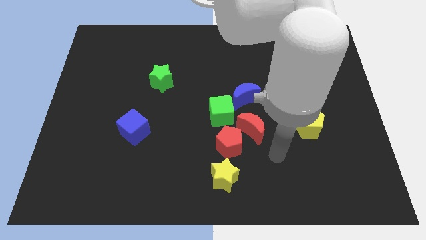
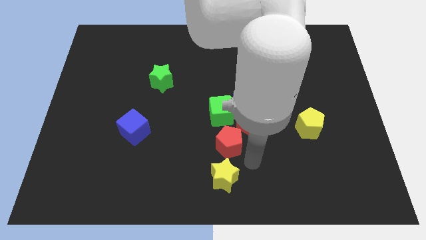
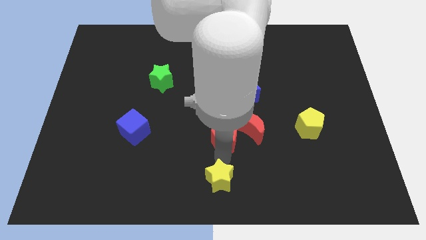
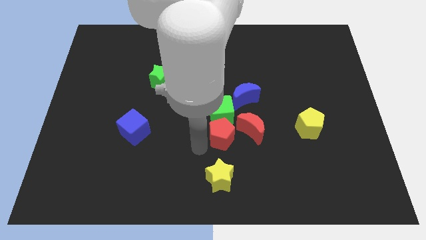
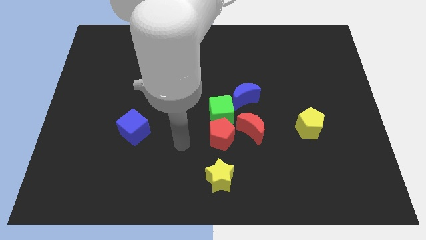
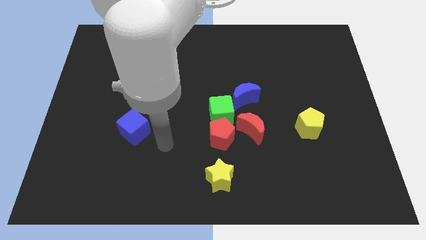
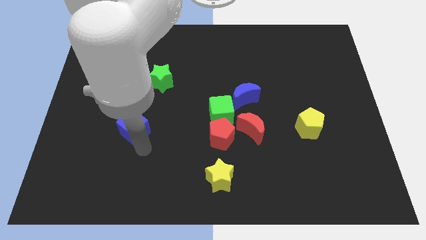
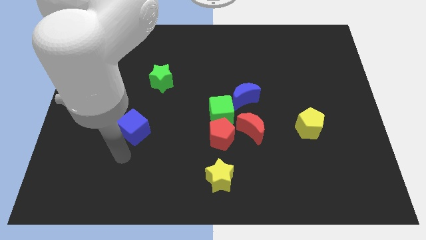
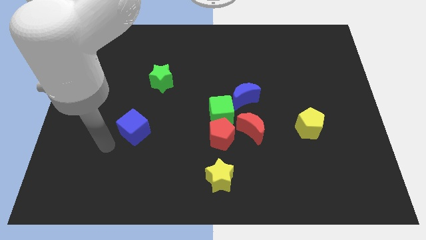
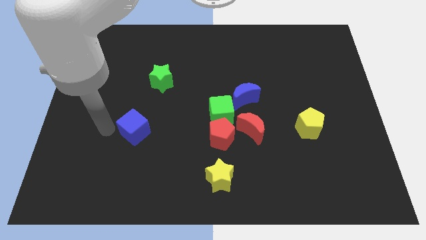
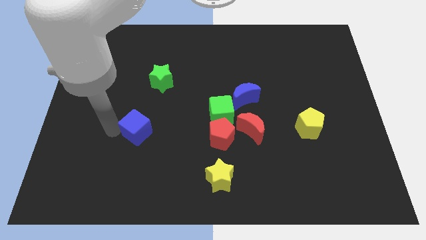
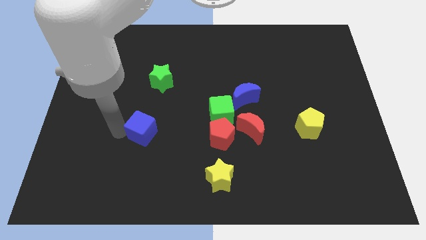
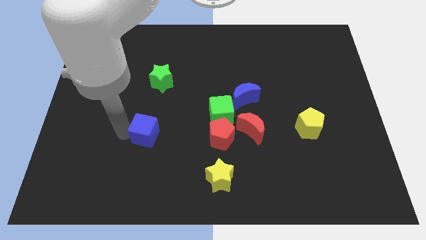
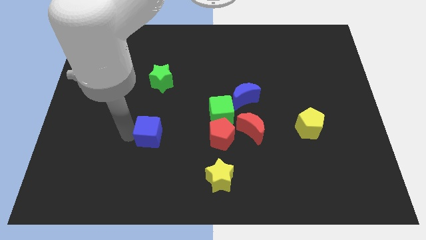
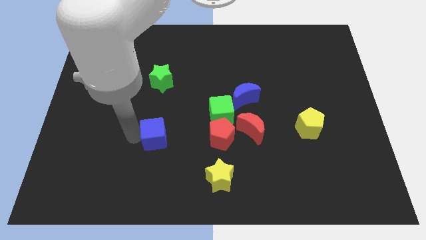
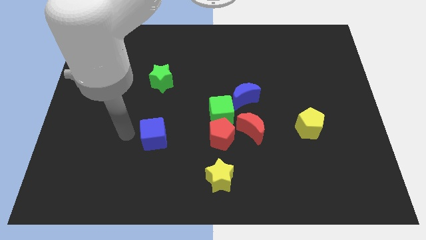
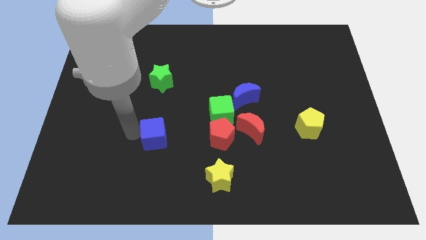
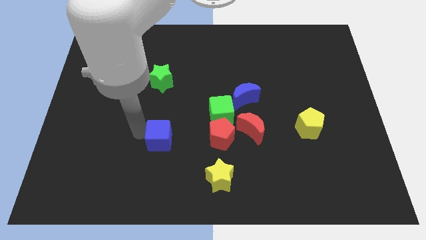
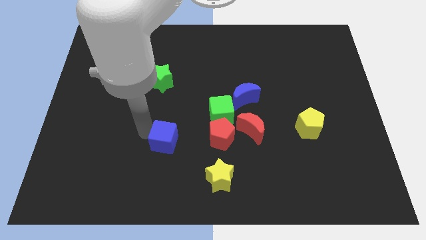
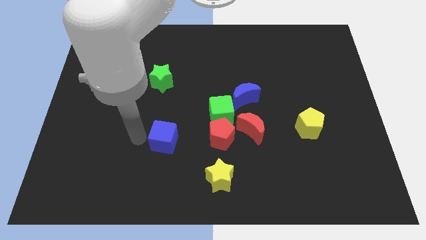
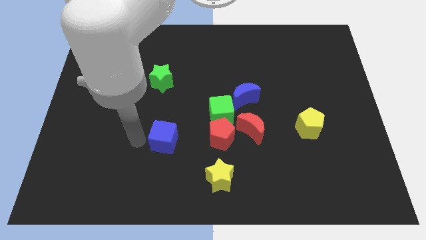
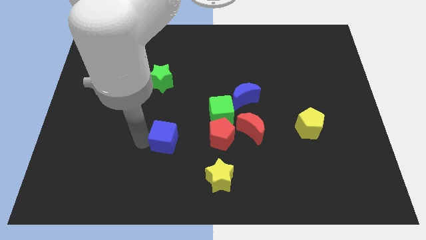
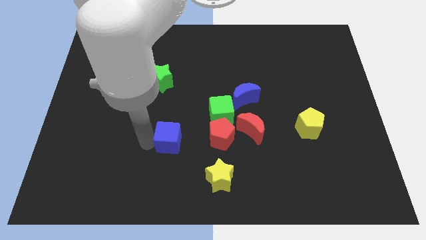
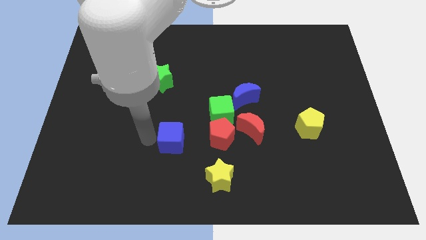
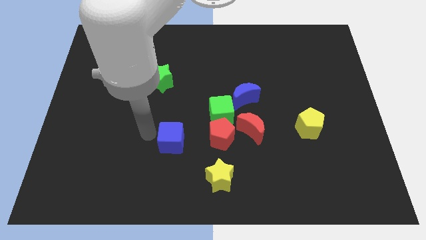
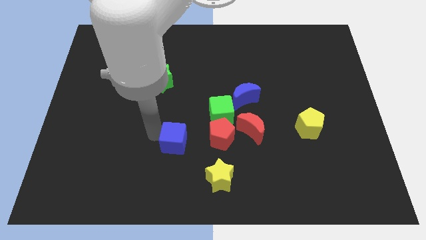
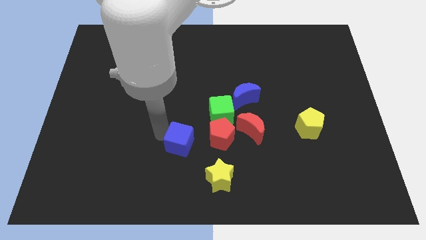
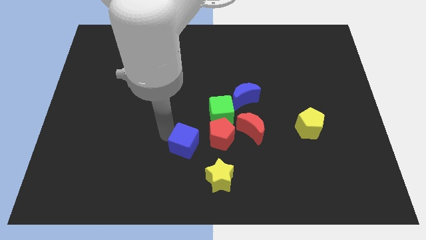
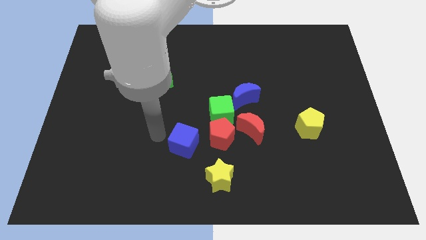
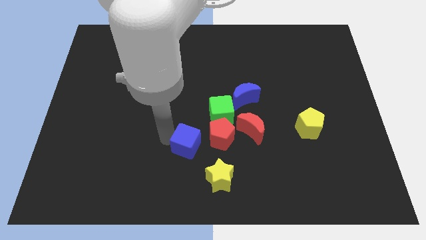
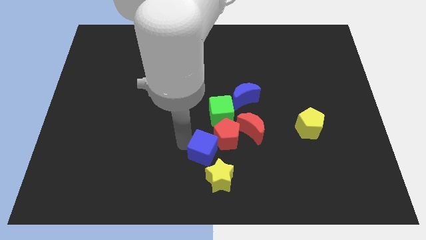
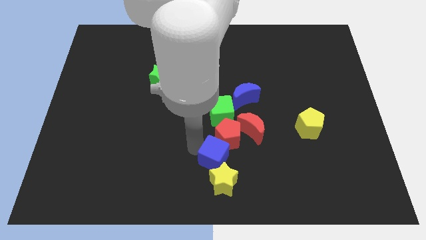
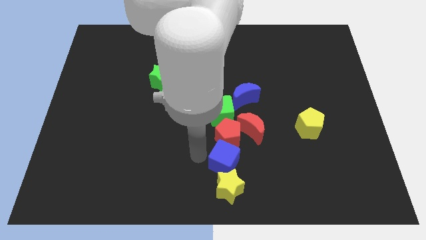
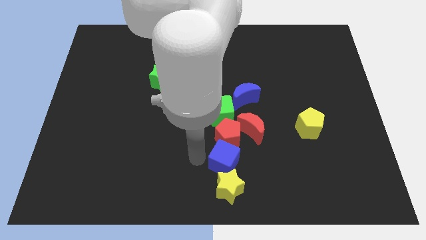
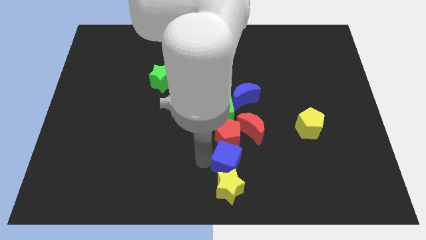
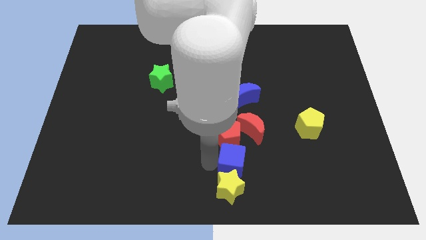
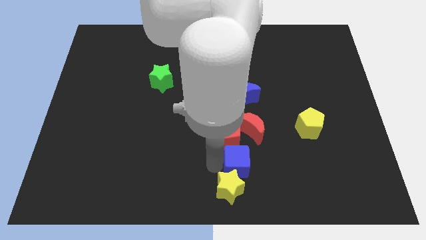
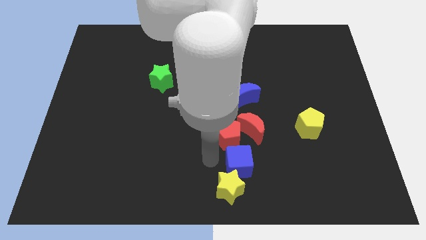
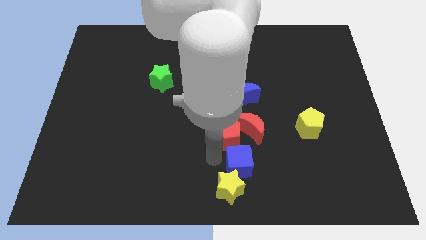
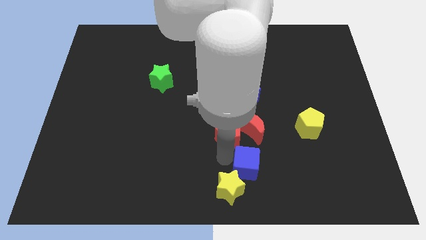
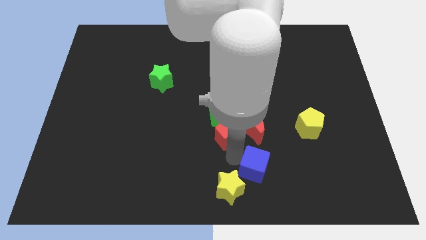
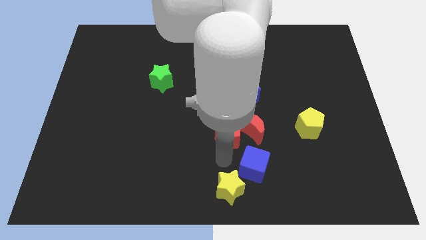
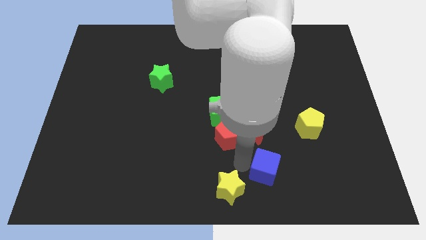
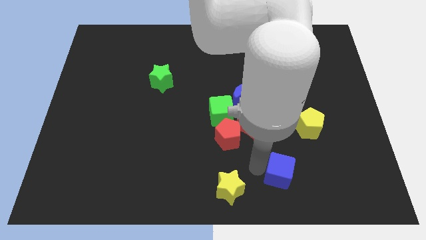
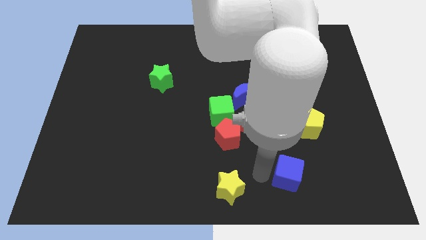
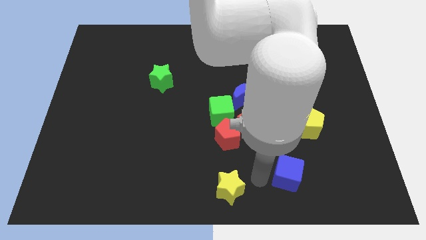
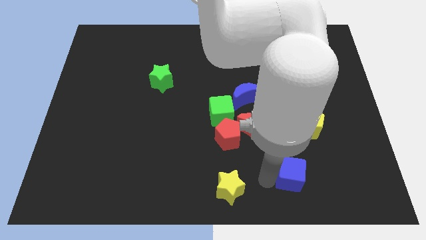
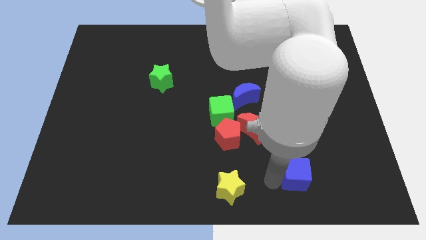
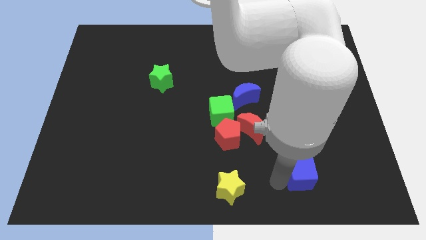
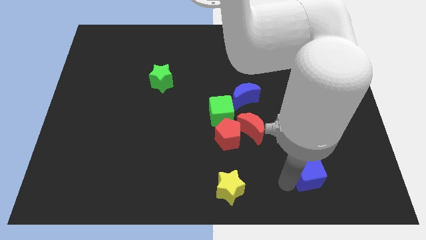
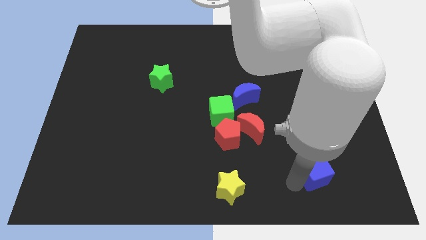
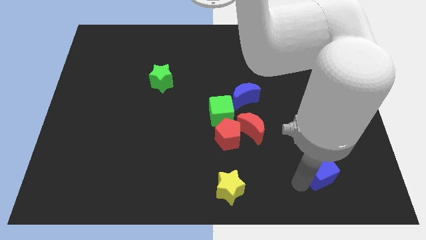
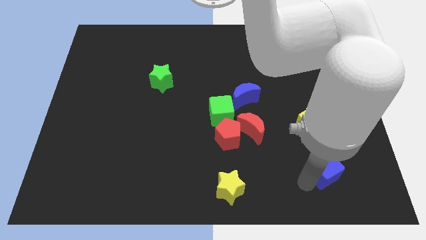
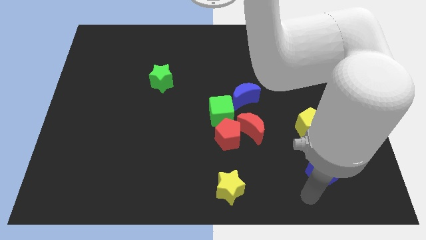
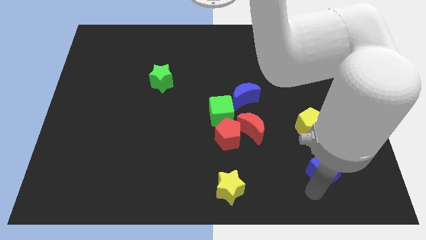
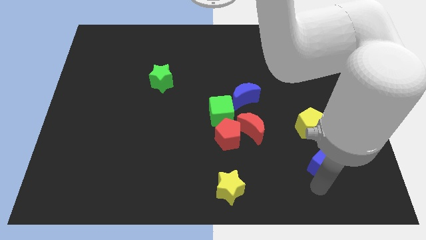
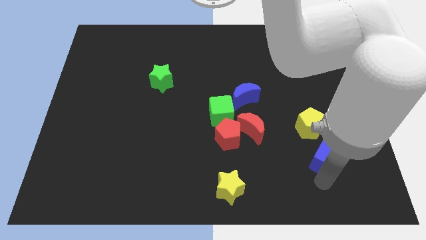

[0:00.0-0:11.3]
move the blue cube to the bottom right of the yellow pentagon

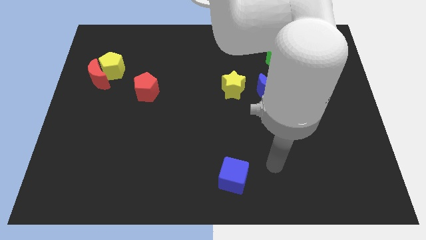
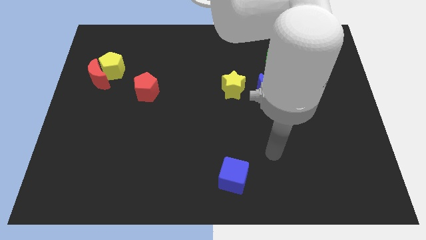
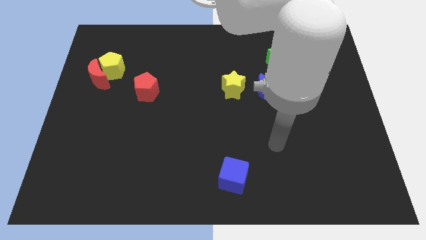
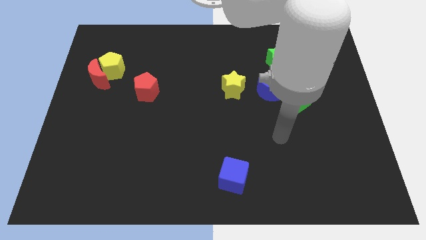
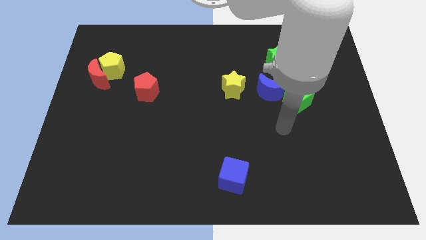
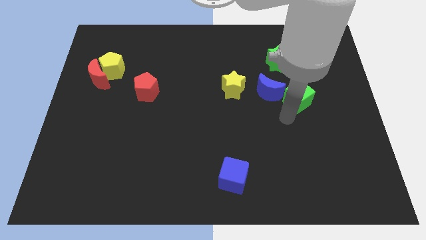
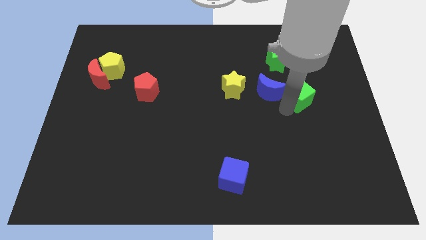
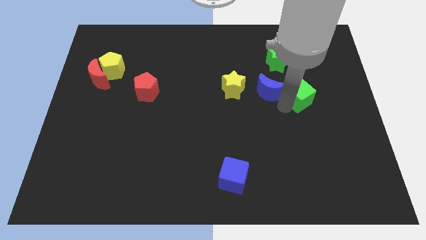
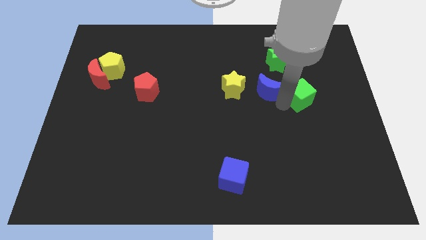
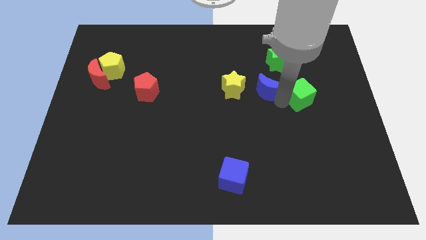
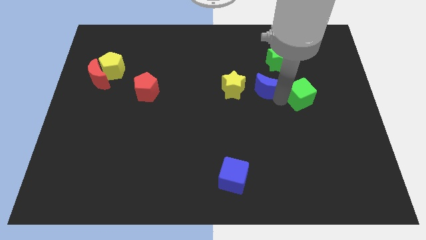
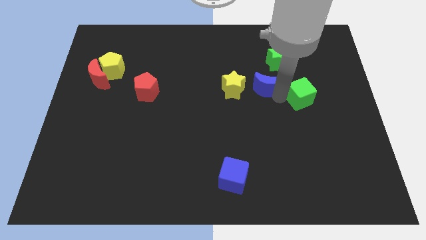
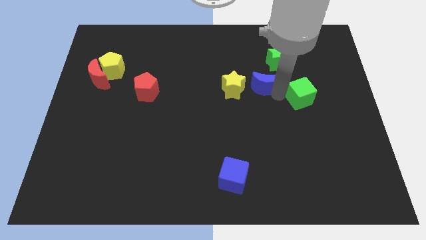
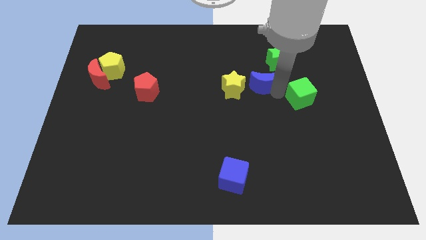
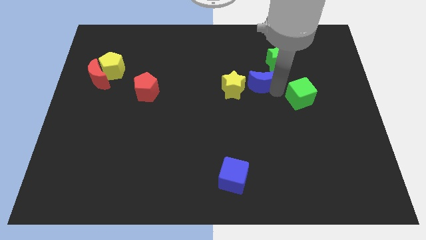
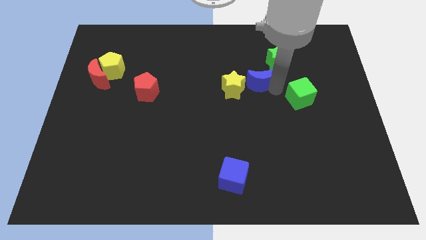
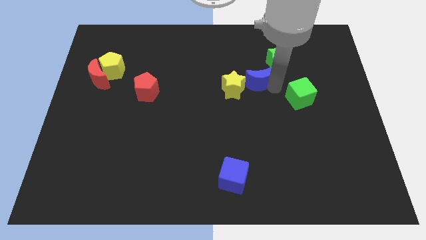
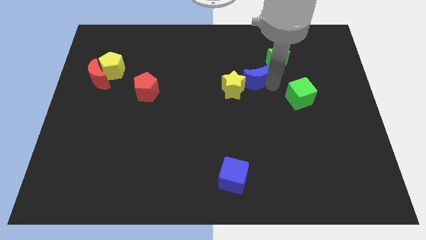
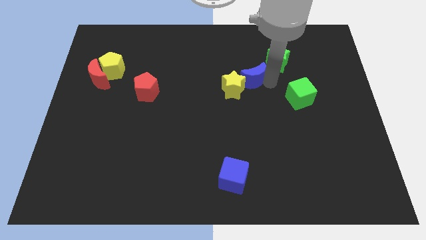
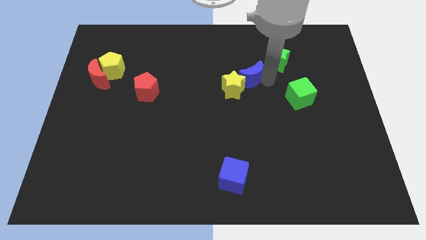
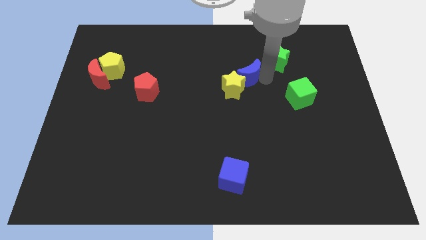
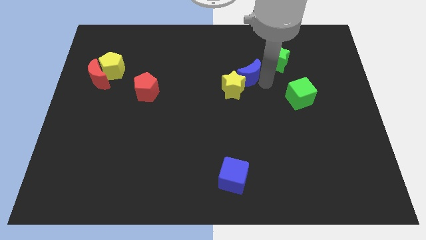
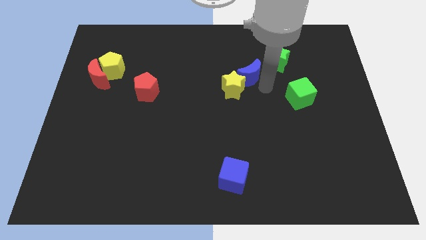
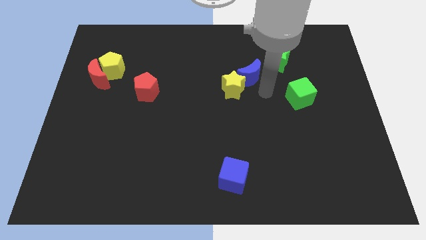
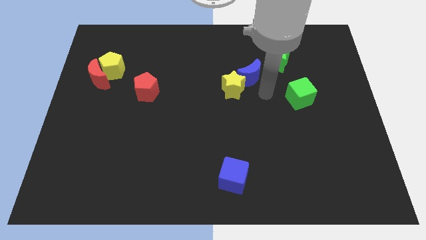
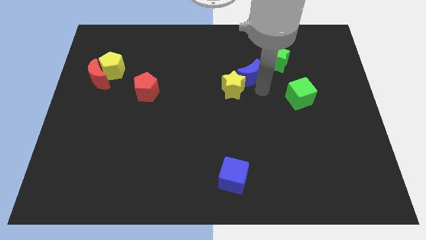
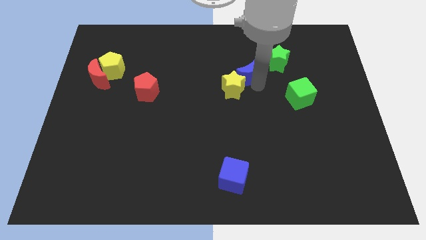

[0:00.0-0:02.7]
put the blue moon just left of the green star
